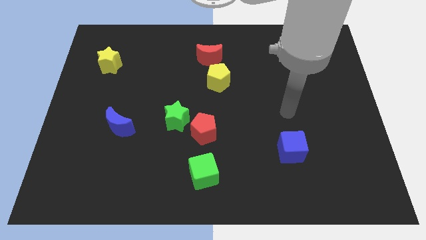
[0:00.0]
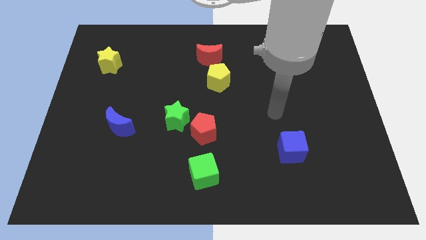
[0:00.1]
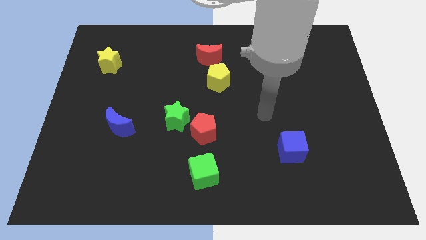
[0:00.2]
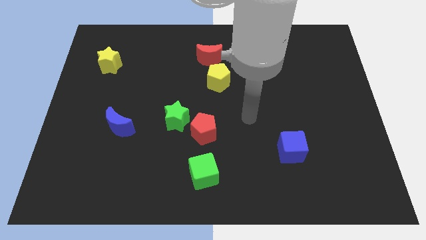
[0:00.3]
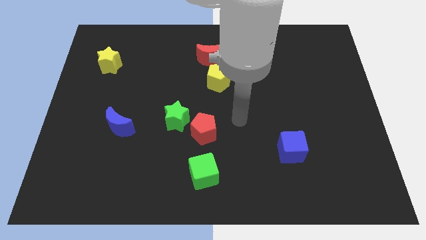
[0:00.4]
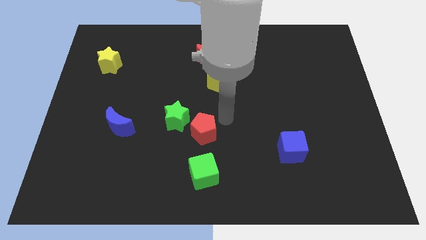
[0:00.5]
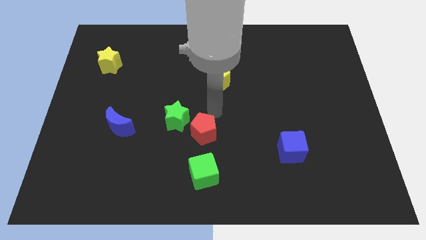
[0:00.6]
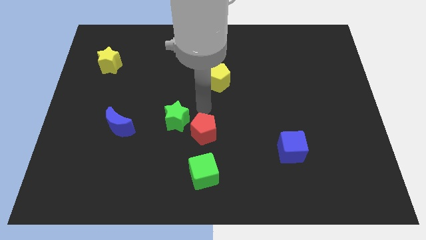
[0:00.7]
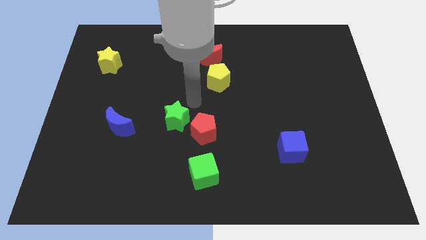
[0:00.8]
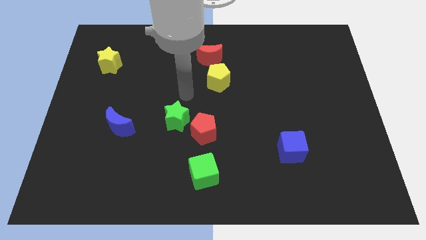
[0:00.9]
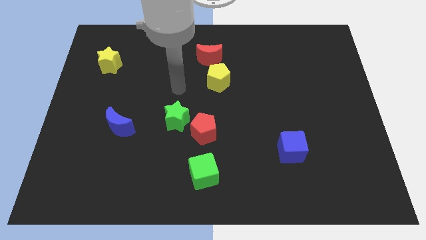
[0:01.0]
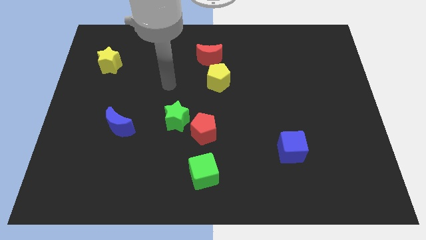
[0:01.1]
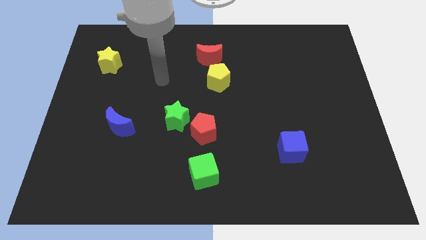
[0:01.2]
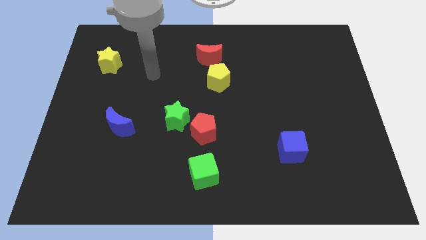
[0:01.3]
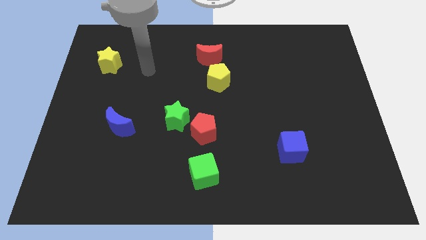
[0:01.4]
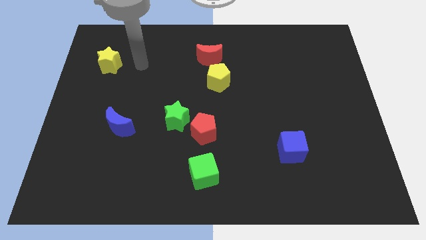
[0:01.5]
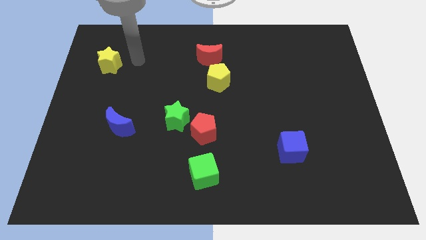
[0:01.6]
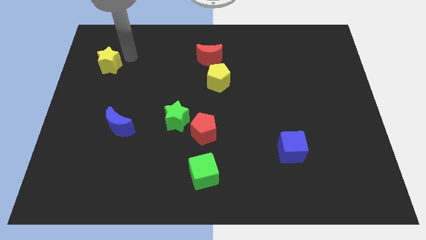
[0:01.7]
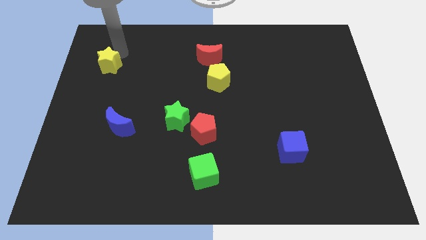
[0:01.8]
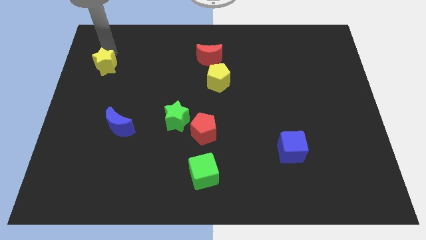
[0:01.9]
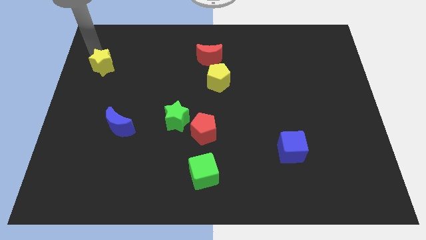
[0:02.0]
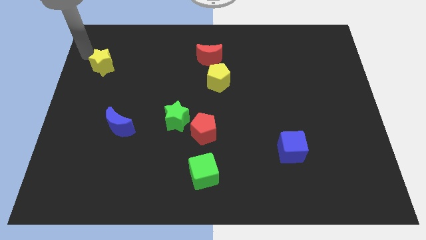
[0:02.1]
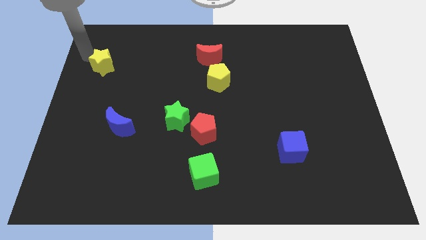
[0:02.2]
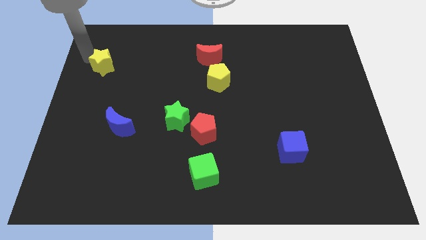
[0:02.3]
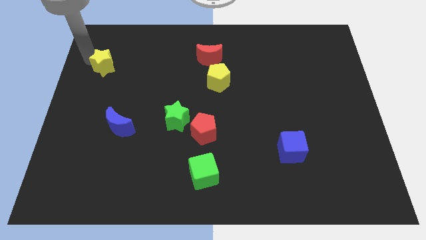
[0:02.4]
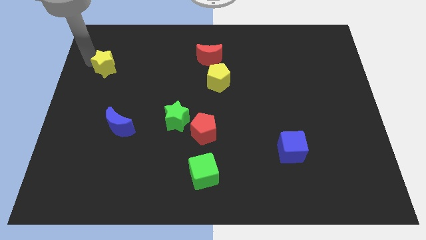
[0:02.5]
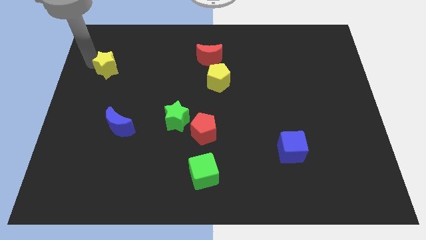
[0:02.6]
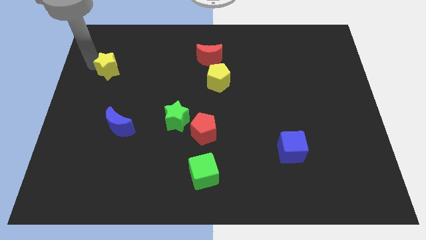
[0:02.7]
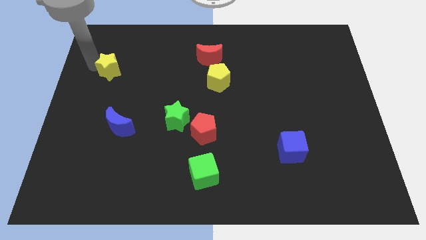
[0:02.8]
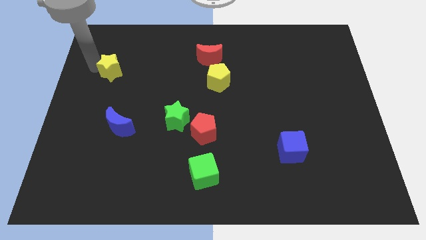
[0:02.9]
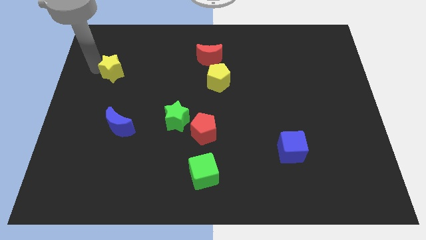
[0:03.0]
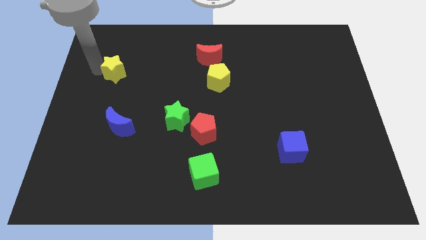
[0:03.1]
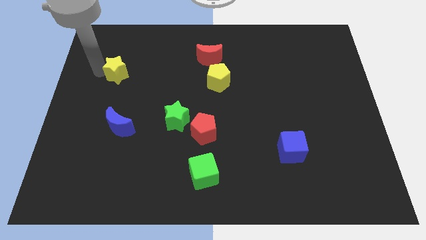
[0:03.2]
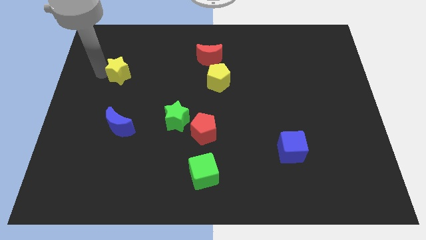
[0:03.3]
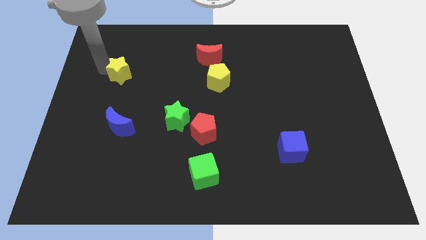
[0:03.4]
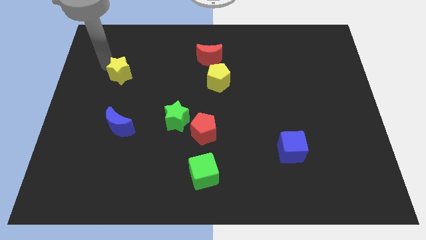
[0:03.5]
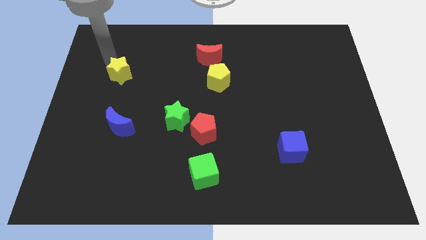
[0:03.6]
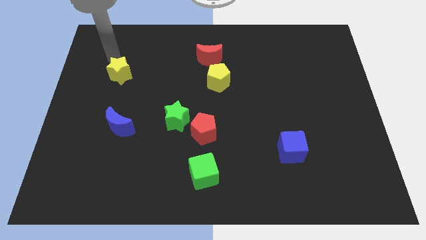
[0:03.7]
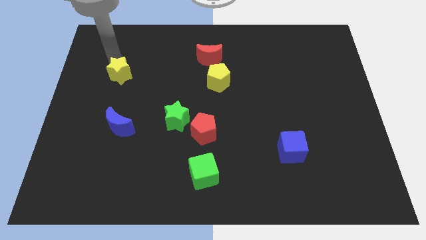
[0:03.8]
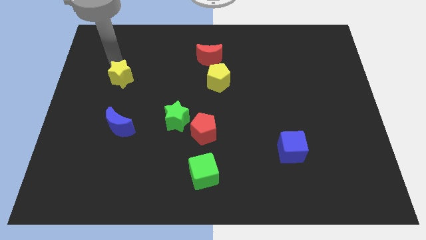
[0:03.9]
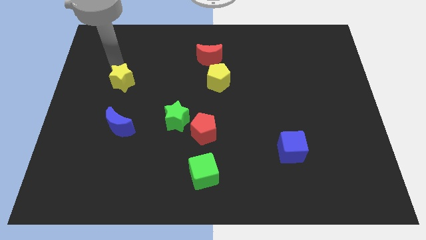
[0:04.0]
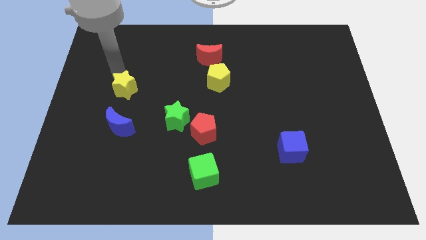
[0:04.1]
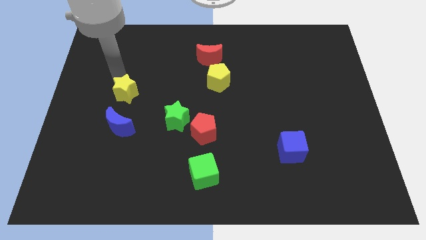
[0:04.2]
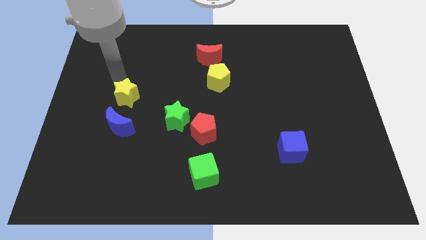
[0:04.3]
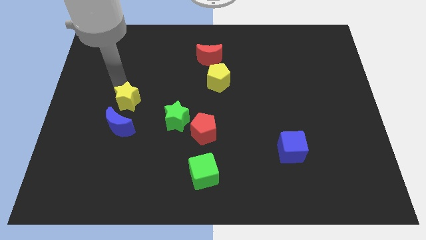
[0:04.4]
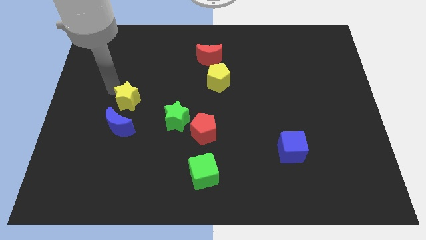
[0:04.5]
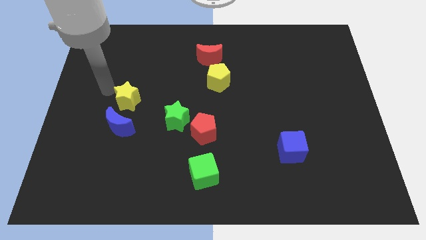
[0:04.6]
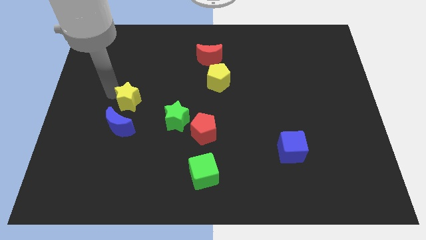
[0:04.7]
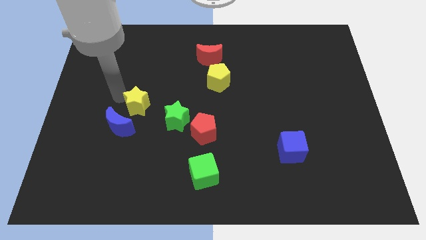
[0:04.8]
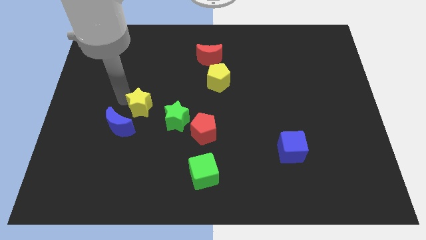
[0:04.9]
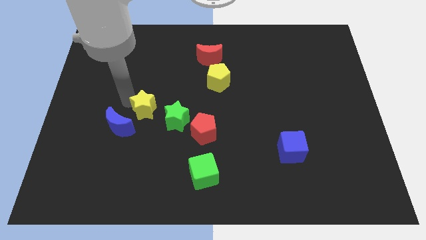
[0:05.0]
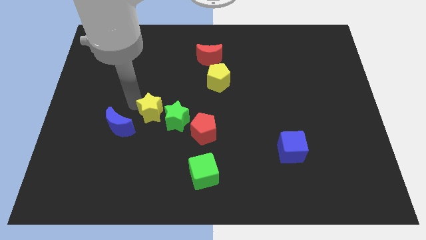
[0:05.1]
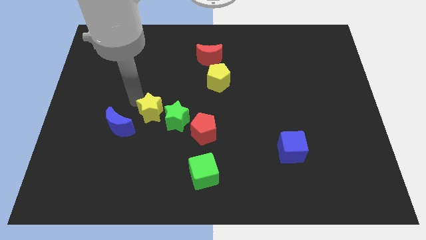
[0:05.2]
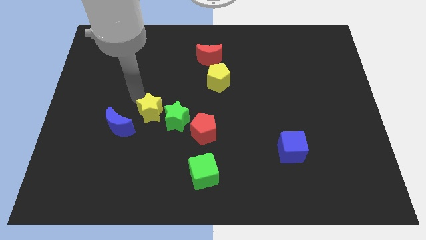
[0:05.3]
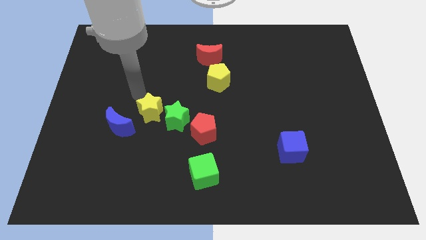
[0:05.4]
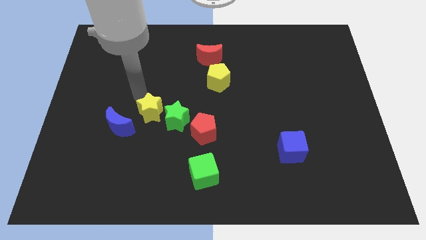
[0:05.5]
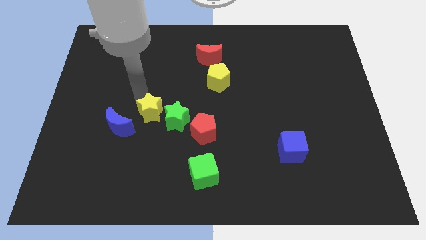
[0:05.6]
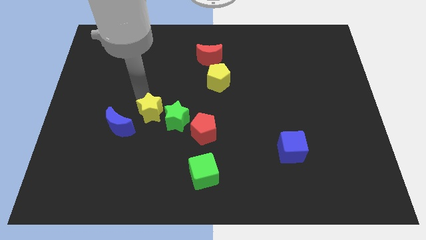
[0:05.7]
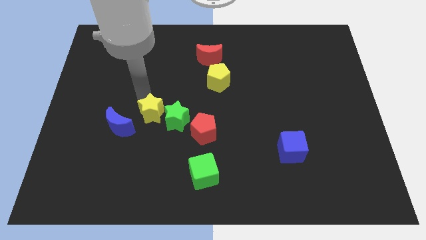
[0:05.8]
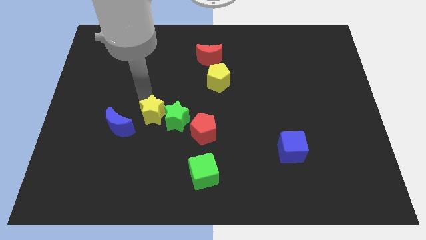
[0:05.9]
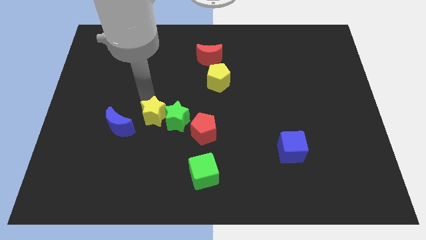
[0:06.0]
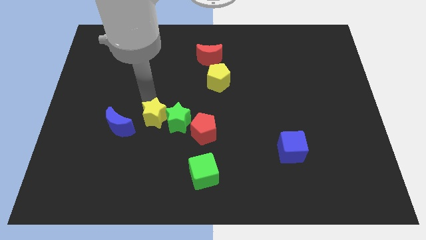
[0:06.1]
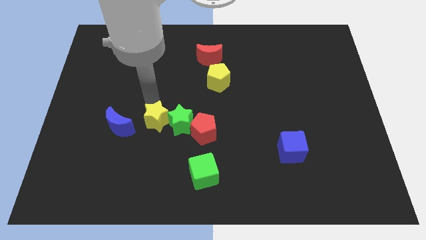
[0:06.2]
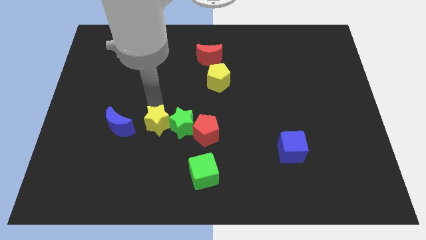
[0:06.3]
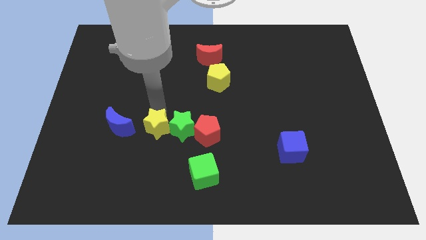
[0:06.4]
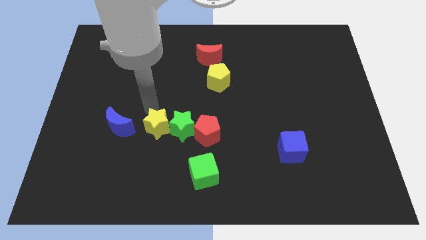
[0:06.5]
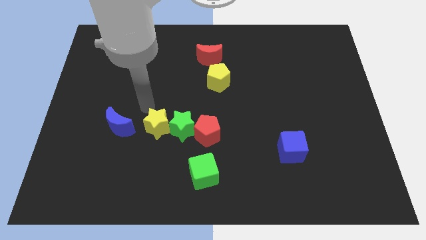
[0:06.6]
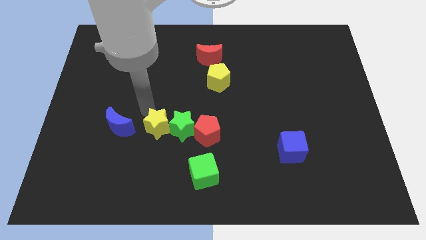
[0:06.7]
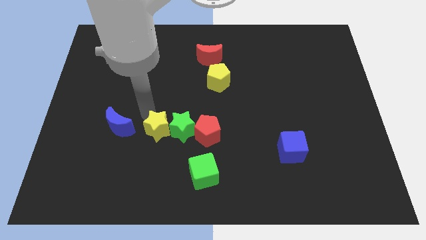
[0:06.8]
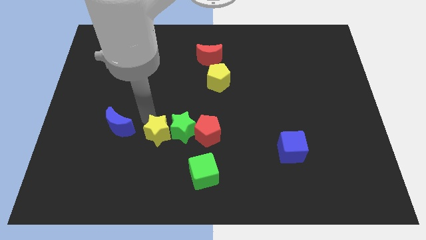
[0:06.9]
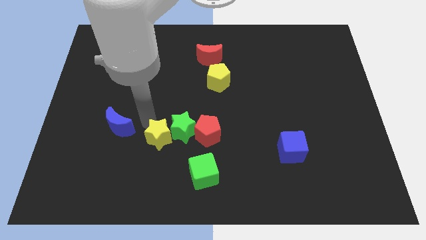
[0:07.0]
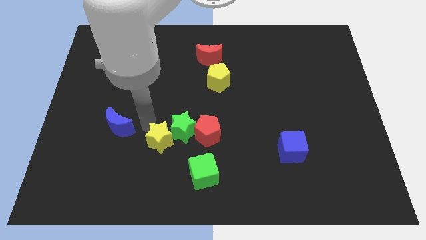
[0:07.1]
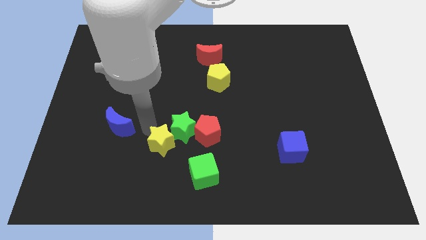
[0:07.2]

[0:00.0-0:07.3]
slide the yellow star below the green star
